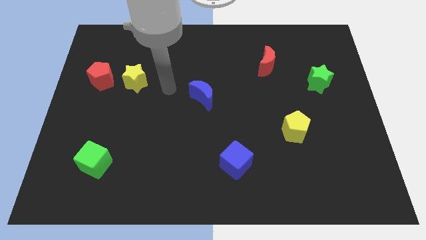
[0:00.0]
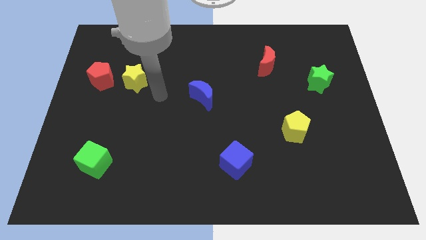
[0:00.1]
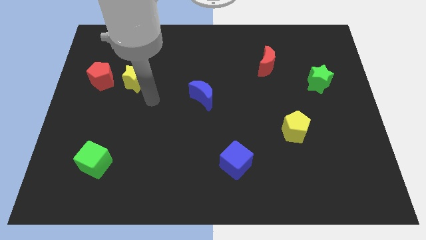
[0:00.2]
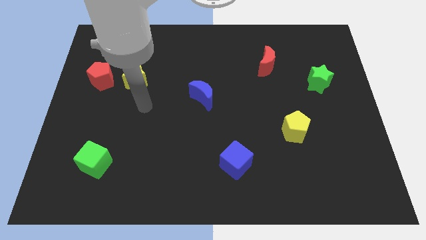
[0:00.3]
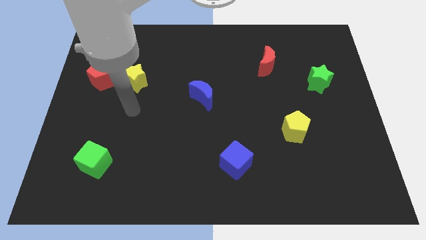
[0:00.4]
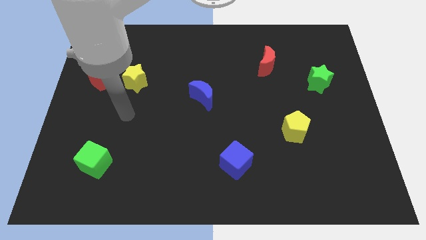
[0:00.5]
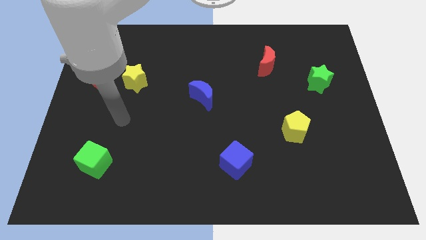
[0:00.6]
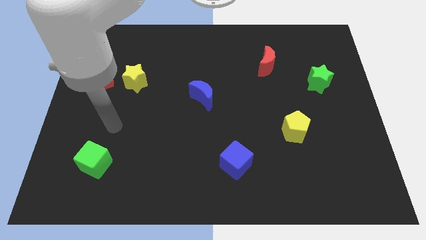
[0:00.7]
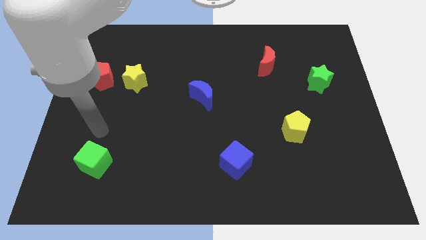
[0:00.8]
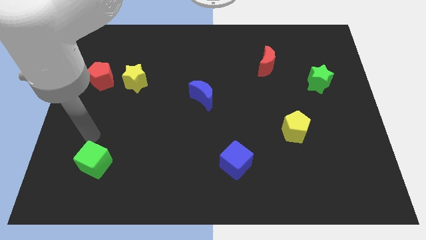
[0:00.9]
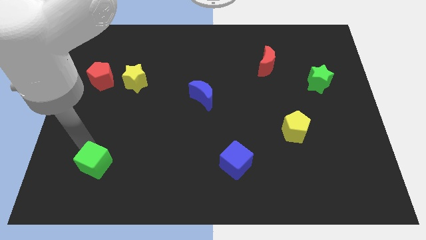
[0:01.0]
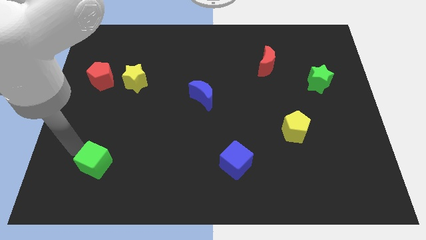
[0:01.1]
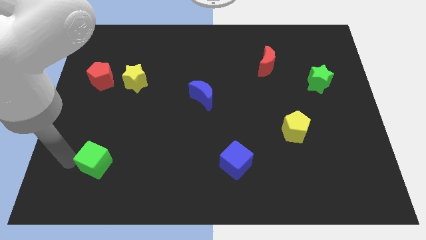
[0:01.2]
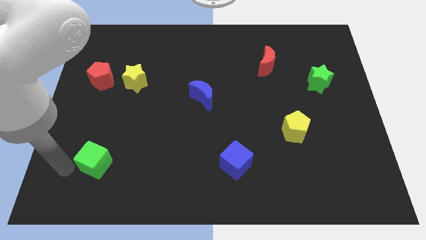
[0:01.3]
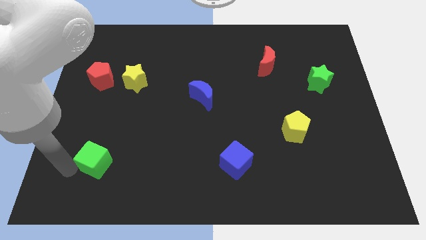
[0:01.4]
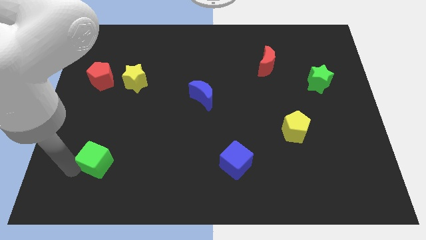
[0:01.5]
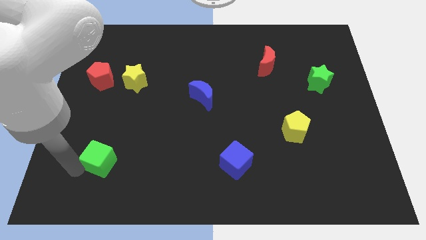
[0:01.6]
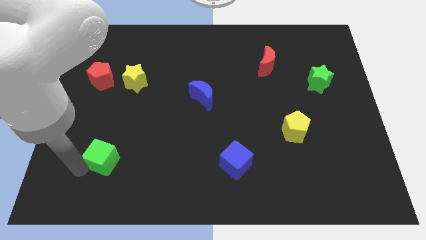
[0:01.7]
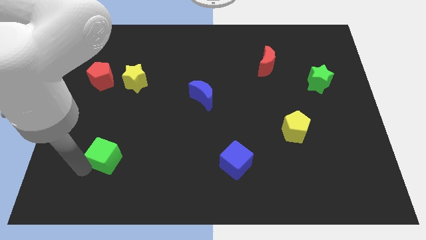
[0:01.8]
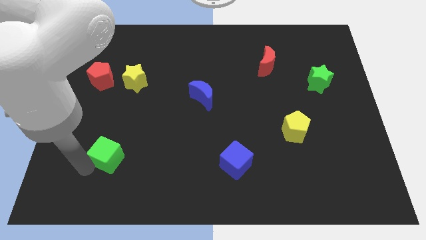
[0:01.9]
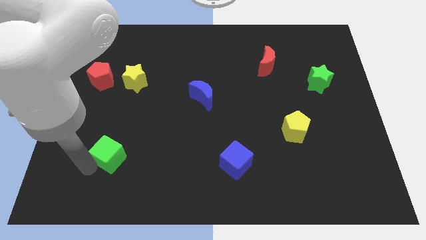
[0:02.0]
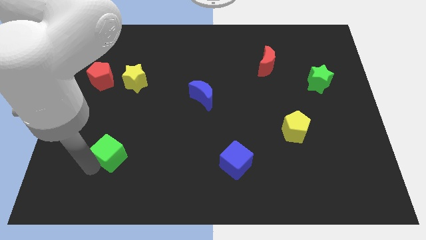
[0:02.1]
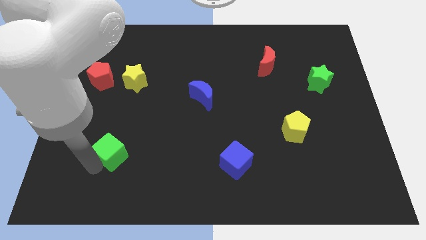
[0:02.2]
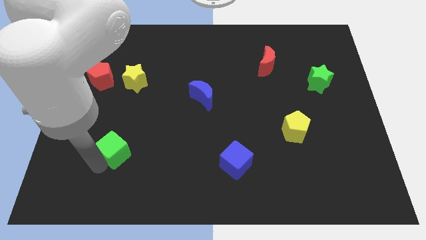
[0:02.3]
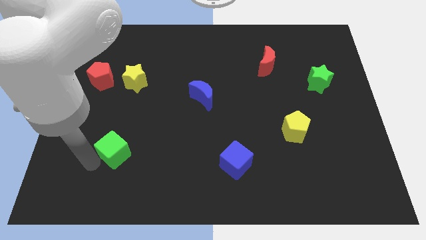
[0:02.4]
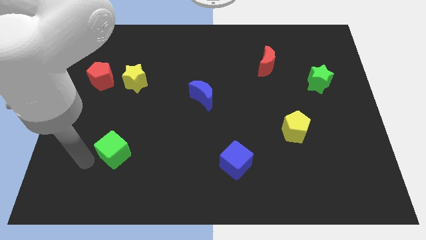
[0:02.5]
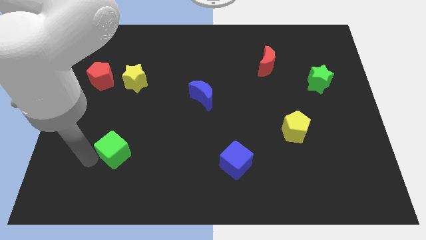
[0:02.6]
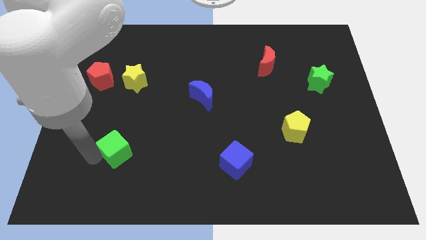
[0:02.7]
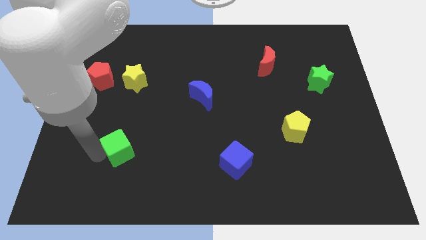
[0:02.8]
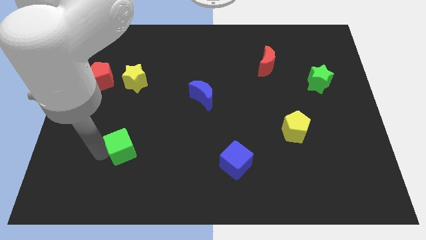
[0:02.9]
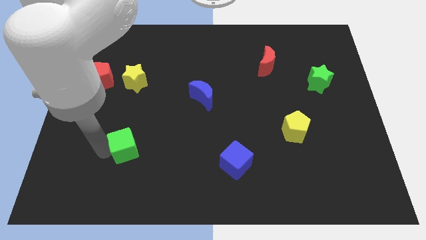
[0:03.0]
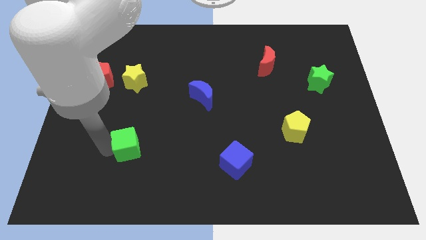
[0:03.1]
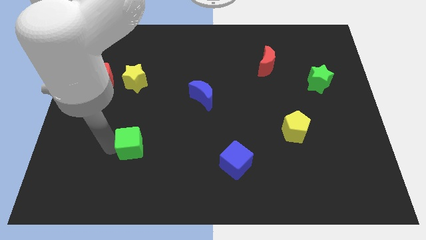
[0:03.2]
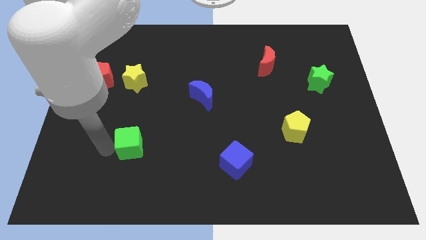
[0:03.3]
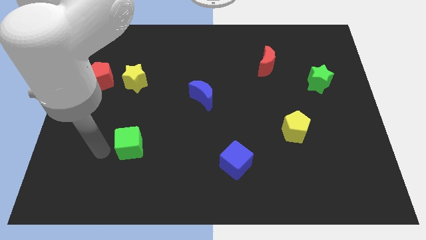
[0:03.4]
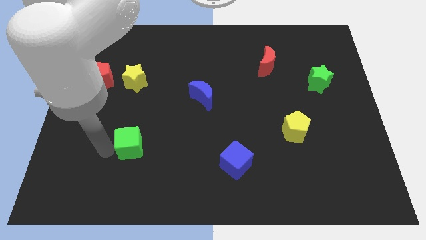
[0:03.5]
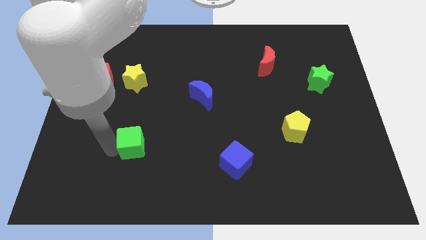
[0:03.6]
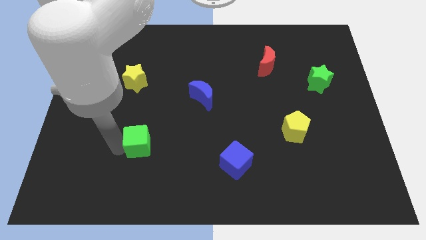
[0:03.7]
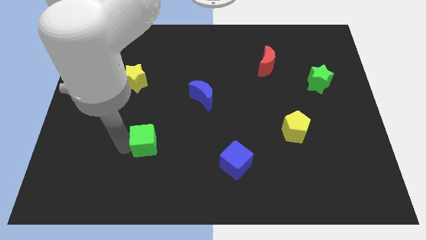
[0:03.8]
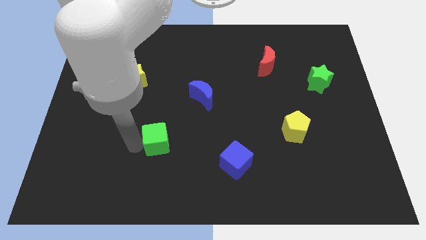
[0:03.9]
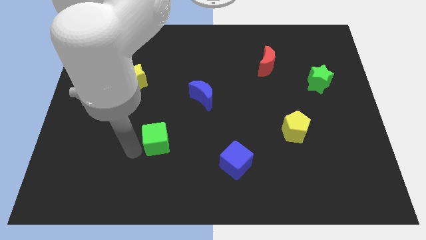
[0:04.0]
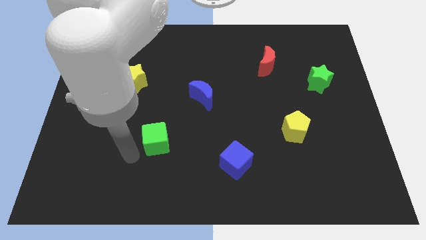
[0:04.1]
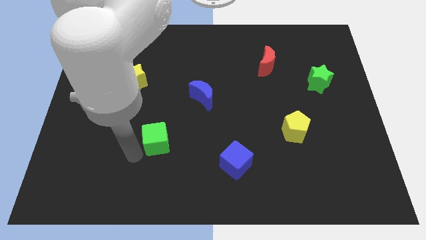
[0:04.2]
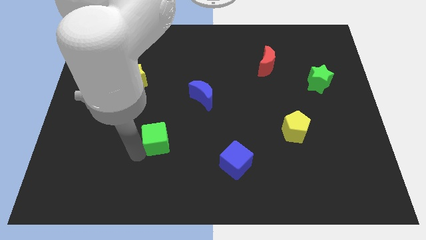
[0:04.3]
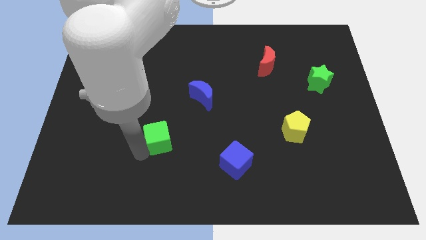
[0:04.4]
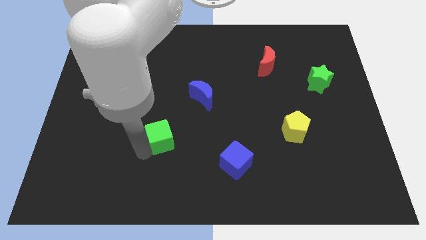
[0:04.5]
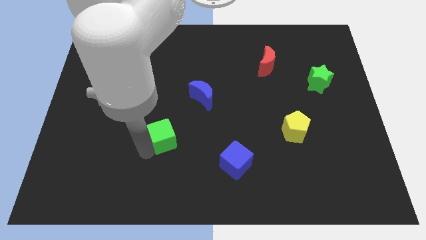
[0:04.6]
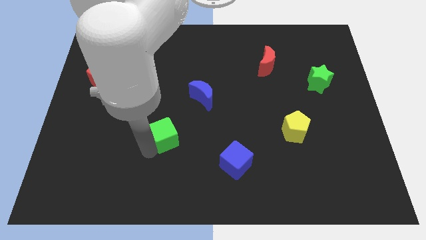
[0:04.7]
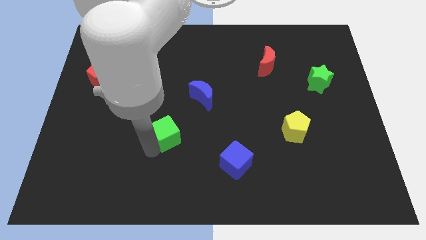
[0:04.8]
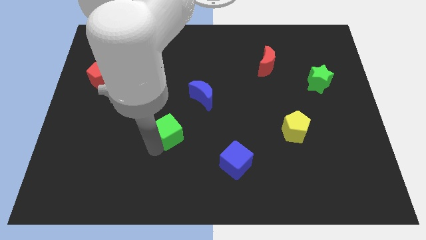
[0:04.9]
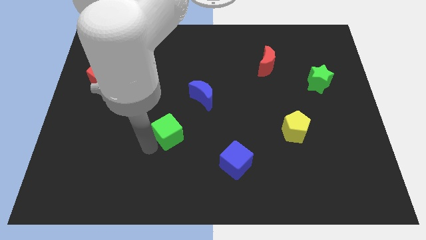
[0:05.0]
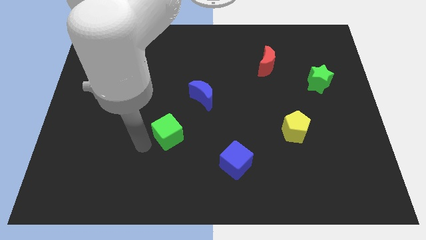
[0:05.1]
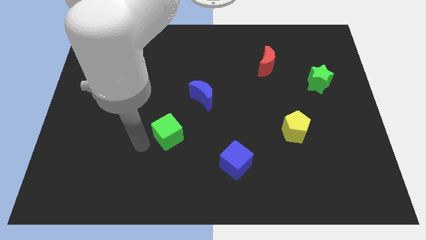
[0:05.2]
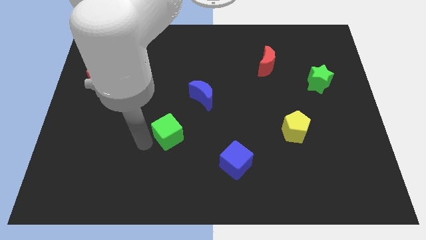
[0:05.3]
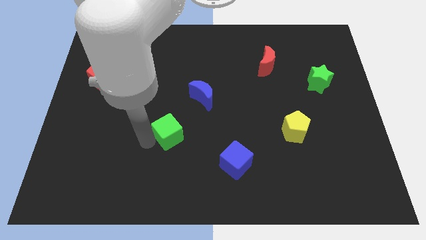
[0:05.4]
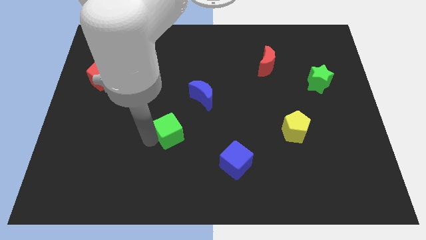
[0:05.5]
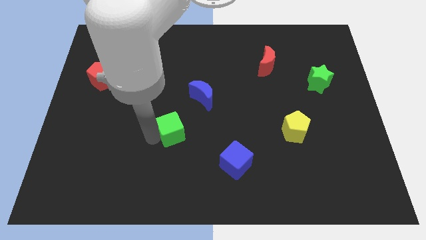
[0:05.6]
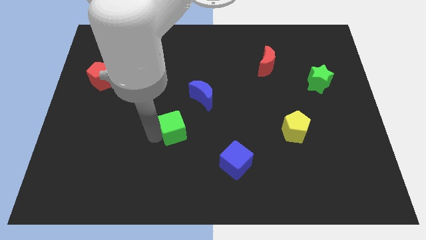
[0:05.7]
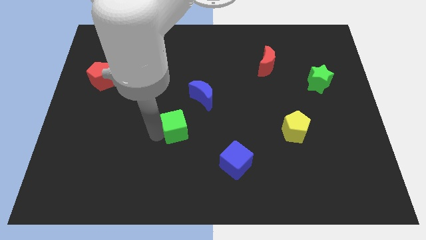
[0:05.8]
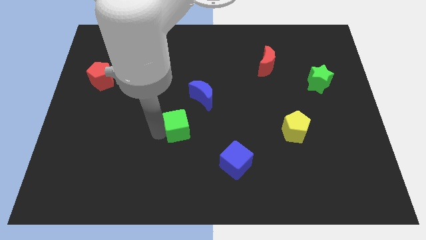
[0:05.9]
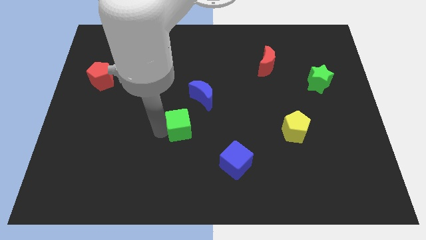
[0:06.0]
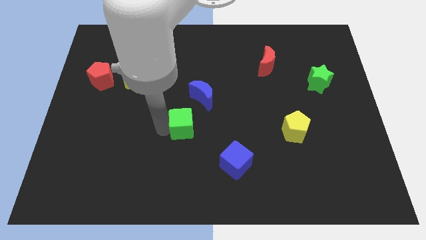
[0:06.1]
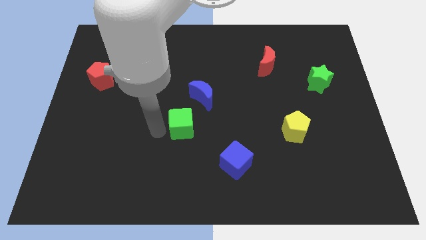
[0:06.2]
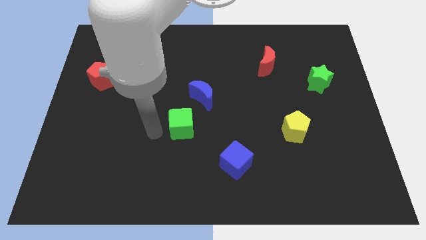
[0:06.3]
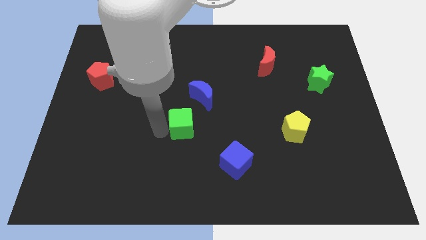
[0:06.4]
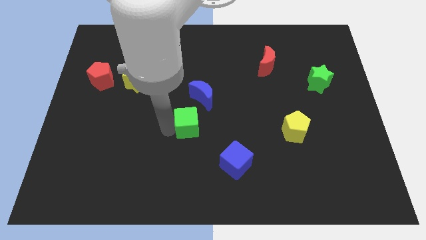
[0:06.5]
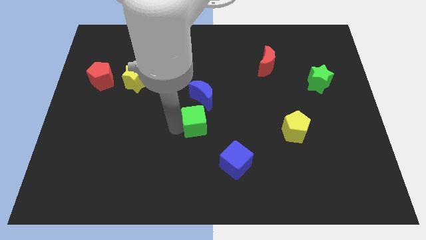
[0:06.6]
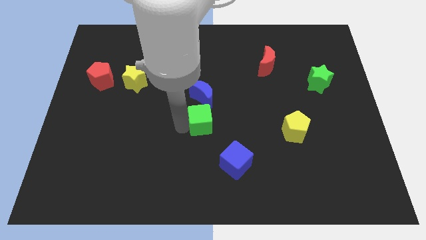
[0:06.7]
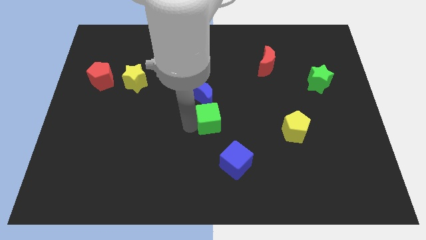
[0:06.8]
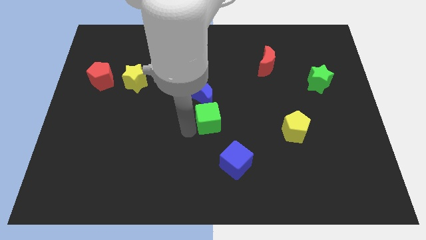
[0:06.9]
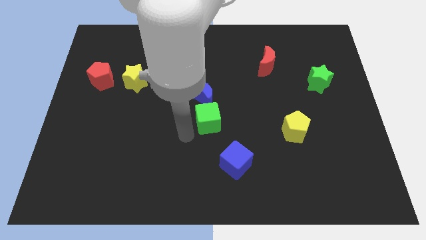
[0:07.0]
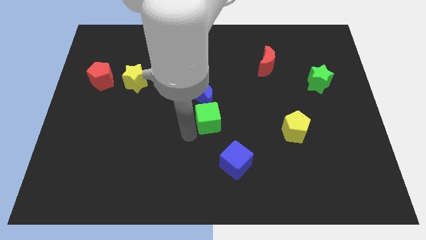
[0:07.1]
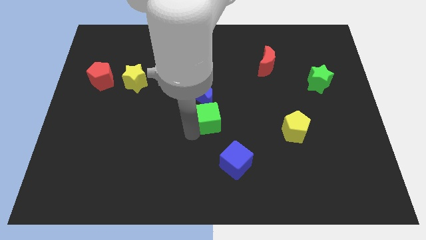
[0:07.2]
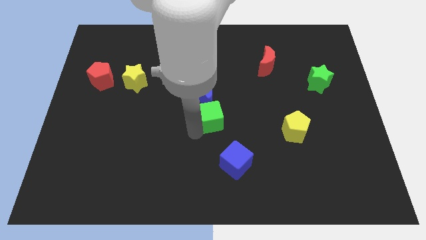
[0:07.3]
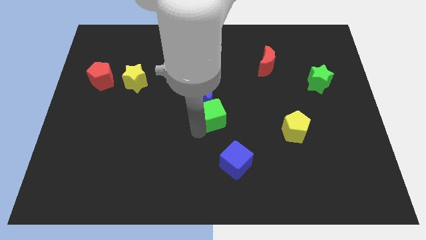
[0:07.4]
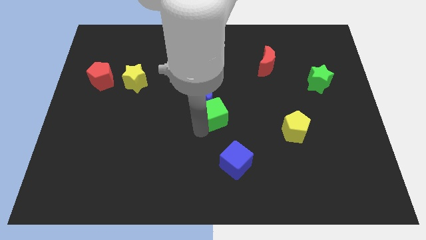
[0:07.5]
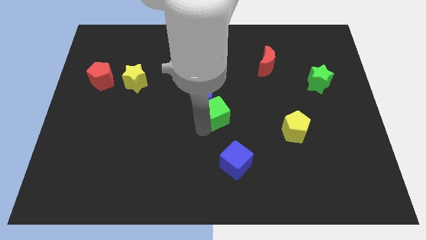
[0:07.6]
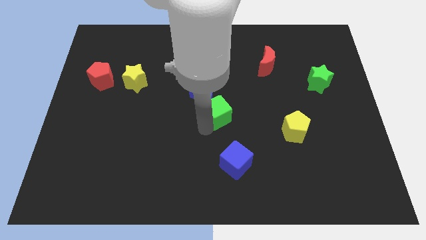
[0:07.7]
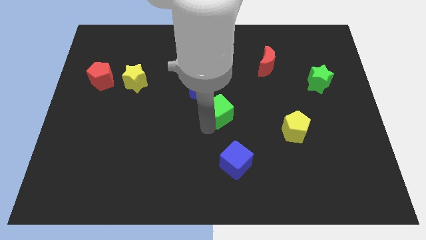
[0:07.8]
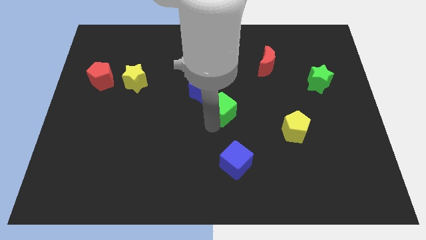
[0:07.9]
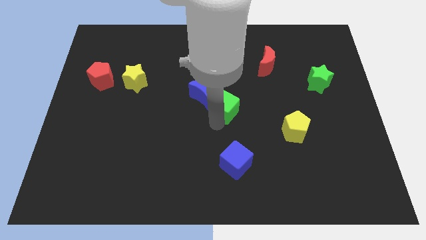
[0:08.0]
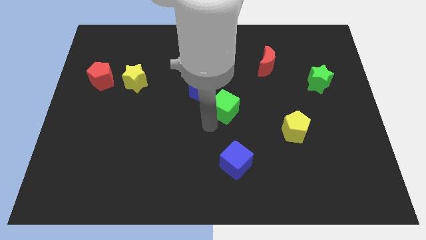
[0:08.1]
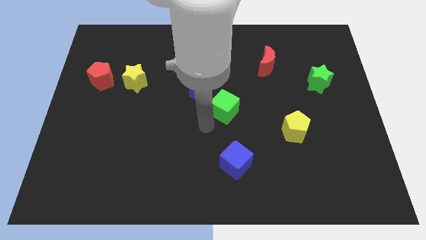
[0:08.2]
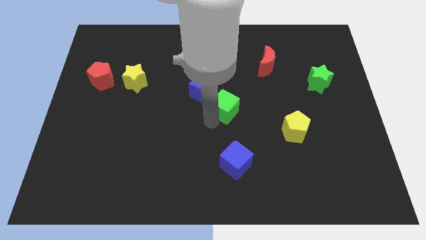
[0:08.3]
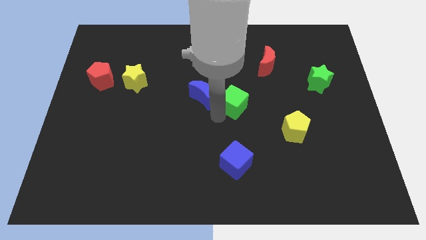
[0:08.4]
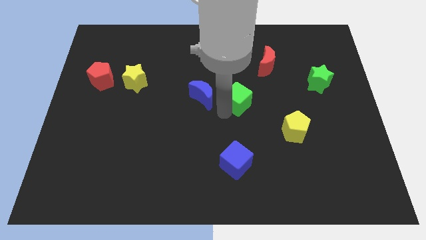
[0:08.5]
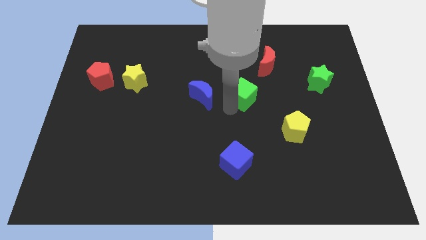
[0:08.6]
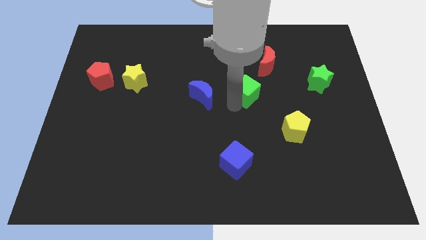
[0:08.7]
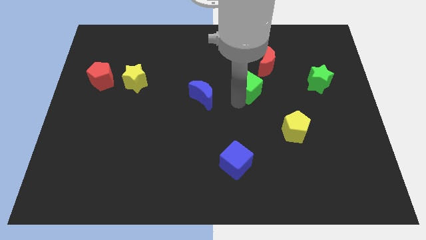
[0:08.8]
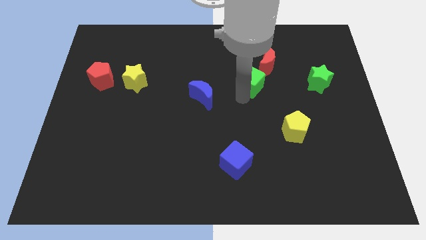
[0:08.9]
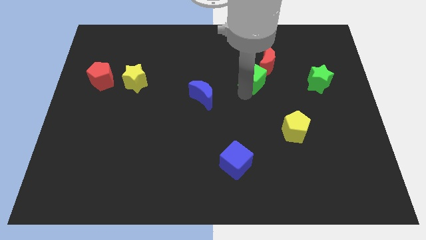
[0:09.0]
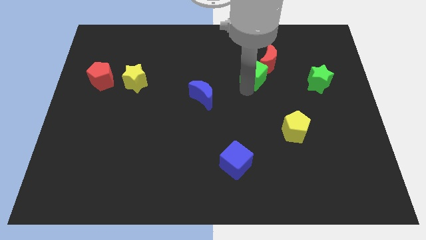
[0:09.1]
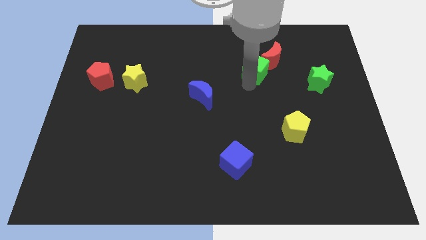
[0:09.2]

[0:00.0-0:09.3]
push the green cube towards the red moon
